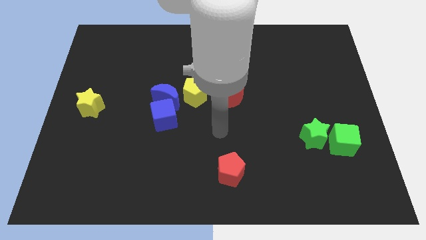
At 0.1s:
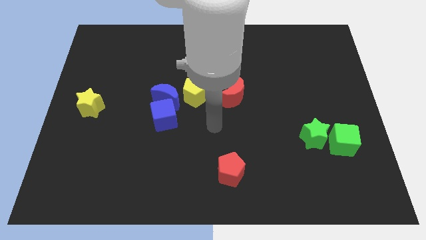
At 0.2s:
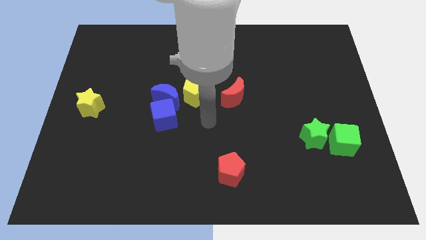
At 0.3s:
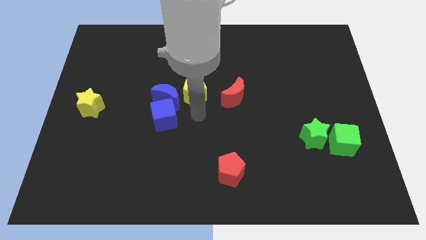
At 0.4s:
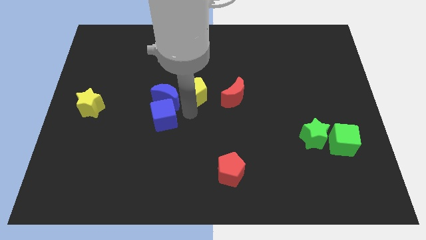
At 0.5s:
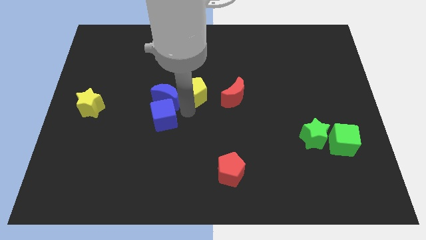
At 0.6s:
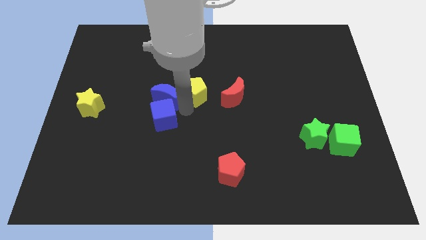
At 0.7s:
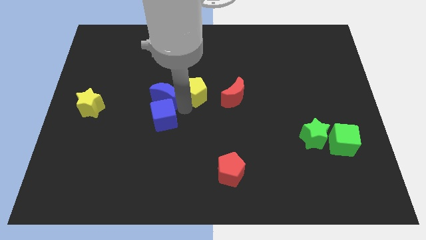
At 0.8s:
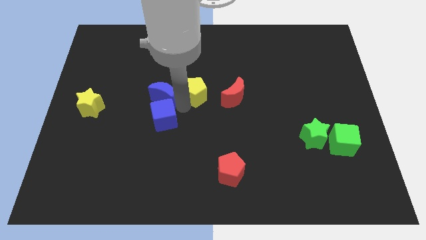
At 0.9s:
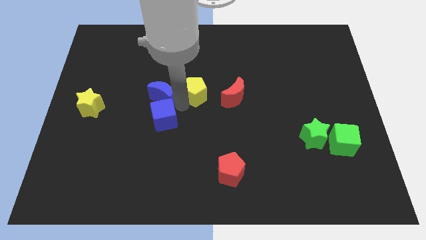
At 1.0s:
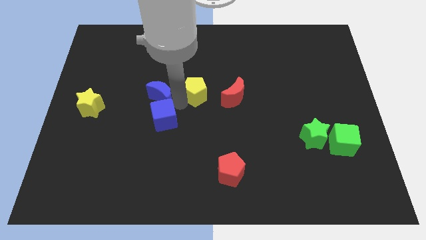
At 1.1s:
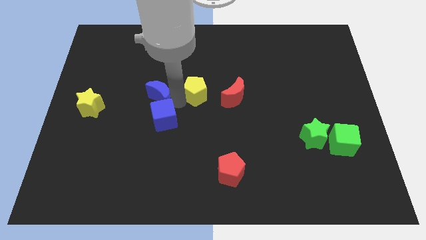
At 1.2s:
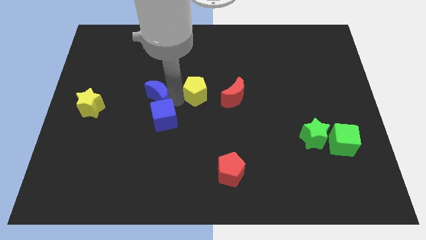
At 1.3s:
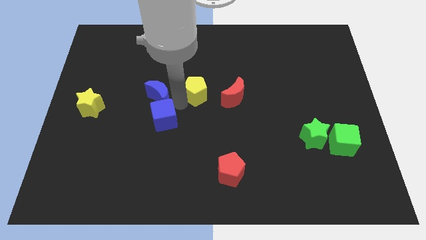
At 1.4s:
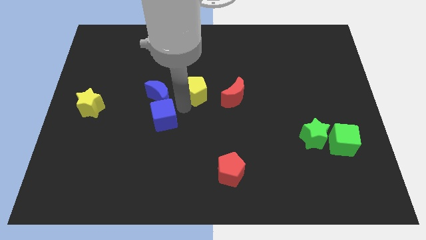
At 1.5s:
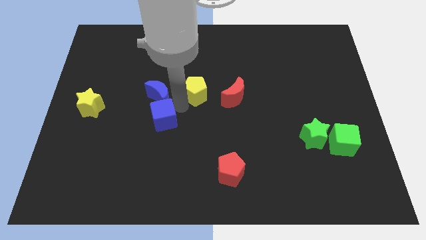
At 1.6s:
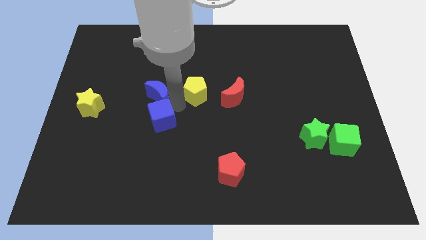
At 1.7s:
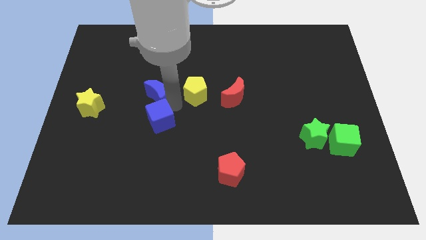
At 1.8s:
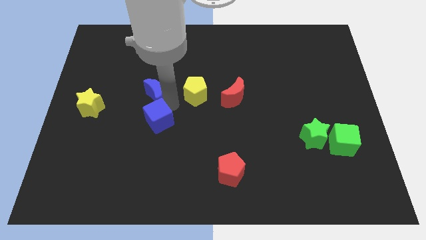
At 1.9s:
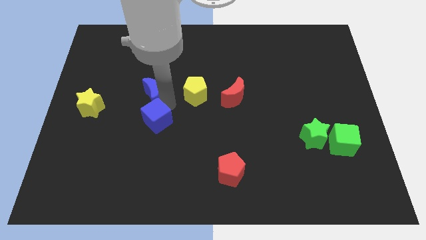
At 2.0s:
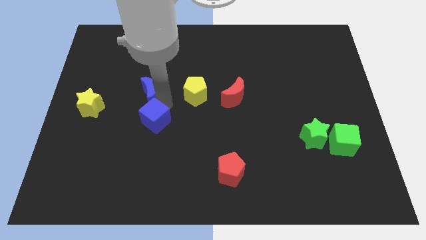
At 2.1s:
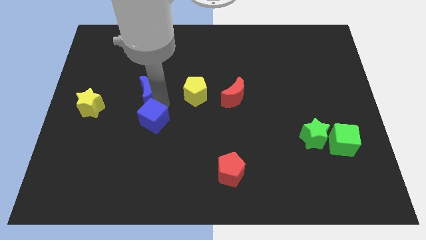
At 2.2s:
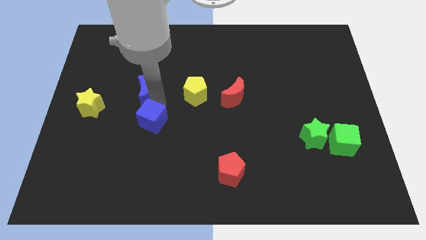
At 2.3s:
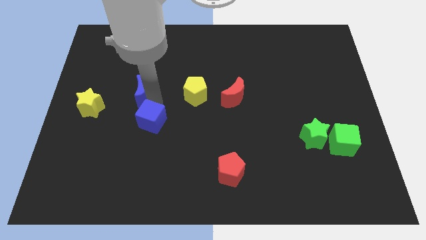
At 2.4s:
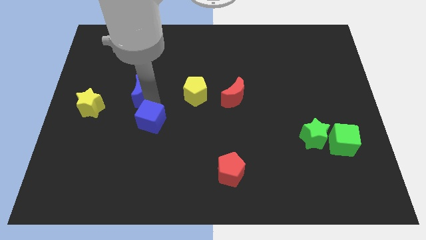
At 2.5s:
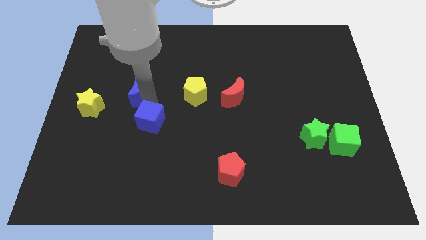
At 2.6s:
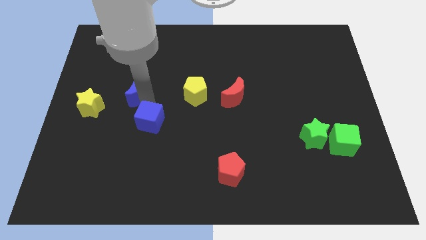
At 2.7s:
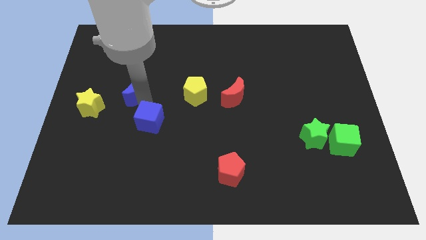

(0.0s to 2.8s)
separate the blue moon from the blue cube and yellow pentagon

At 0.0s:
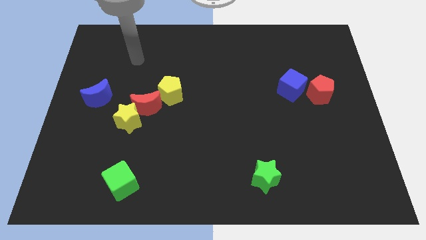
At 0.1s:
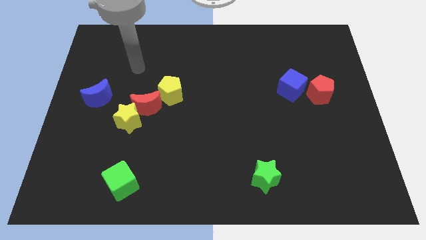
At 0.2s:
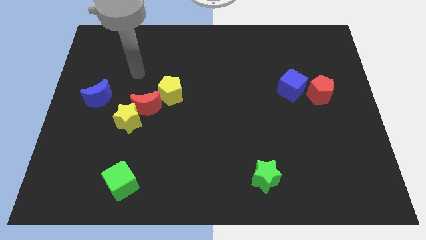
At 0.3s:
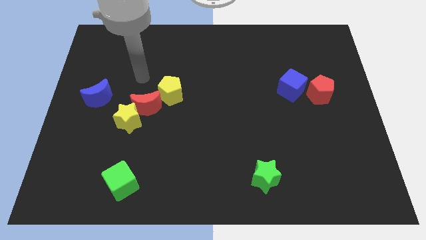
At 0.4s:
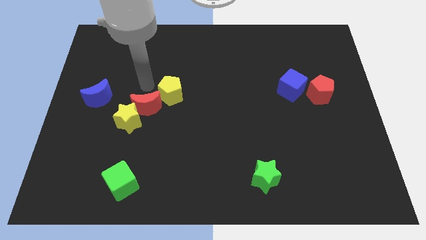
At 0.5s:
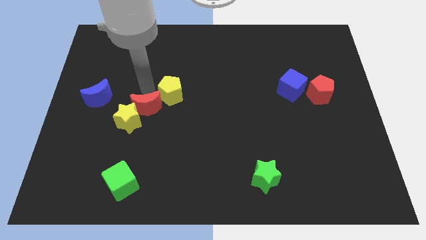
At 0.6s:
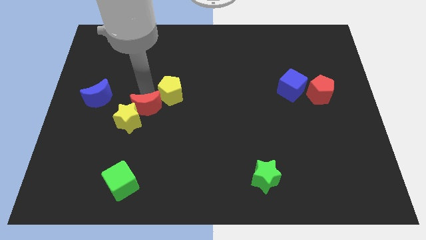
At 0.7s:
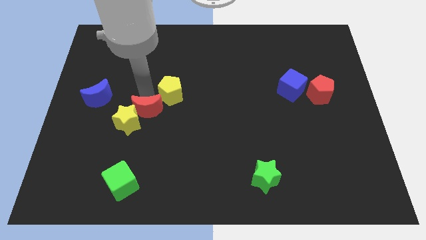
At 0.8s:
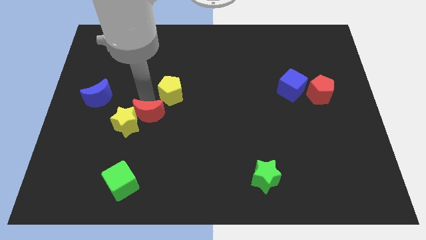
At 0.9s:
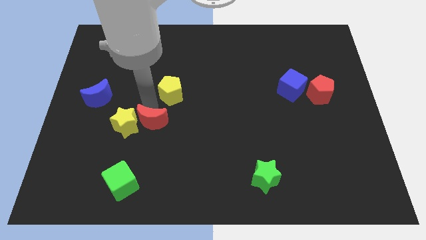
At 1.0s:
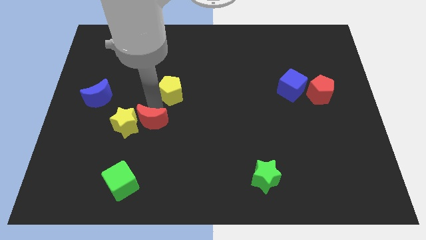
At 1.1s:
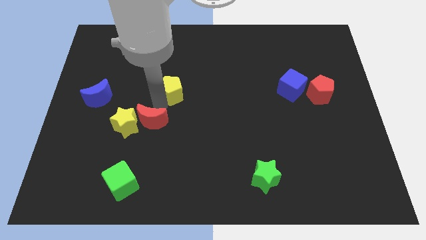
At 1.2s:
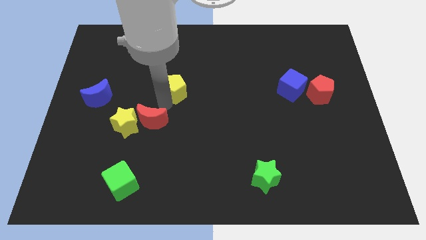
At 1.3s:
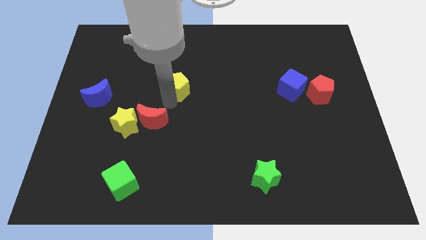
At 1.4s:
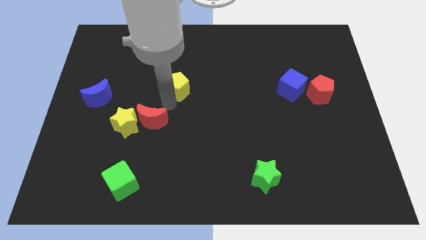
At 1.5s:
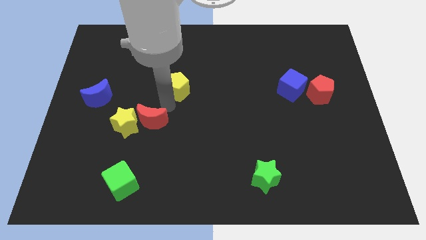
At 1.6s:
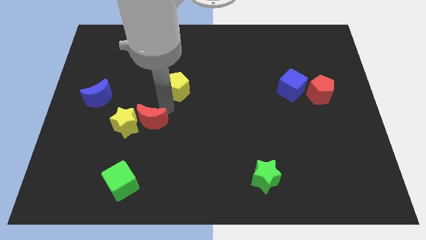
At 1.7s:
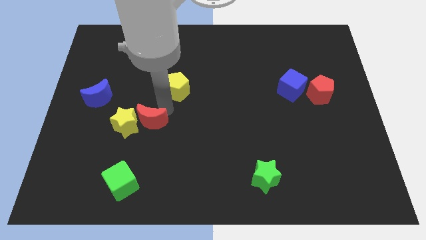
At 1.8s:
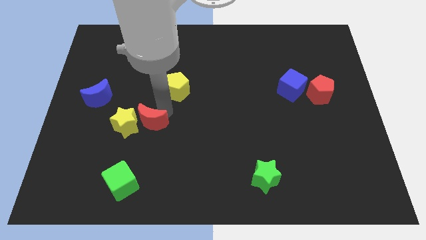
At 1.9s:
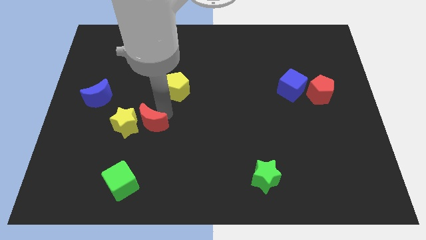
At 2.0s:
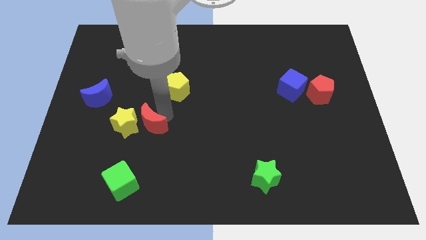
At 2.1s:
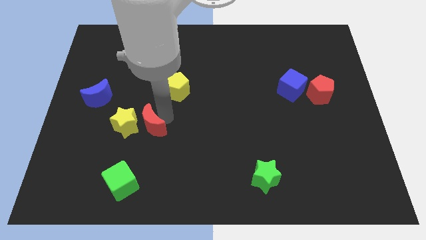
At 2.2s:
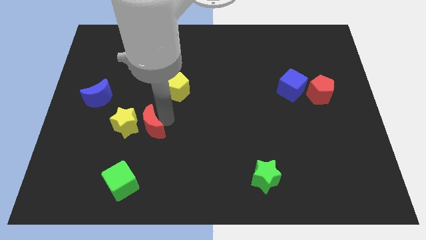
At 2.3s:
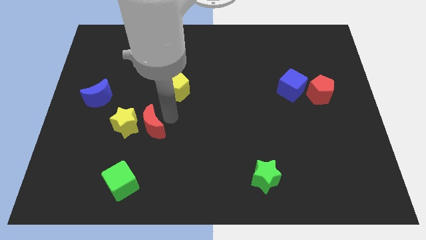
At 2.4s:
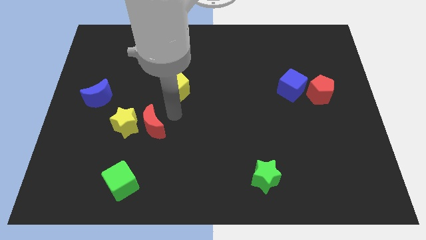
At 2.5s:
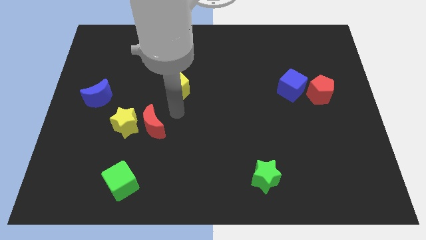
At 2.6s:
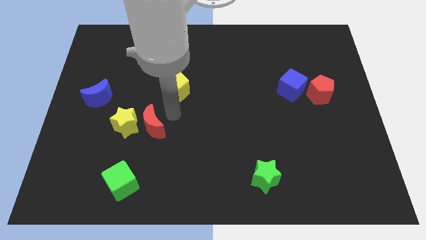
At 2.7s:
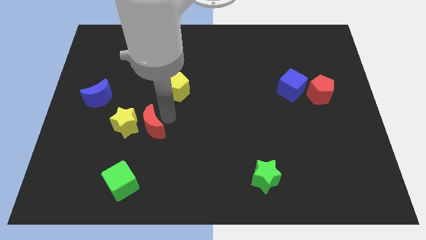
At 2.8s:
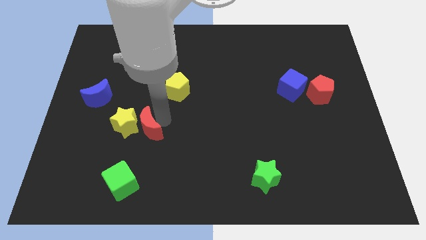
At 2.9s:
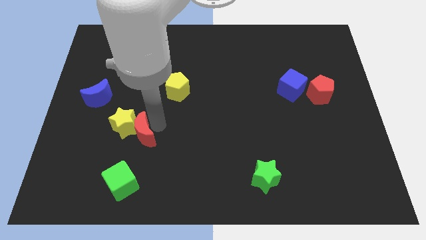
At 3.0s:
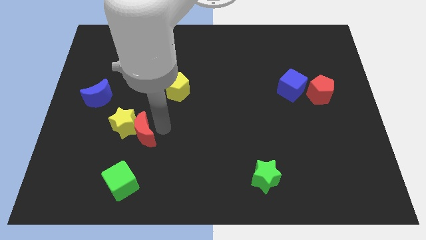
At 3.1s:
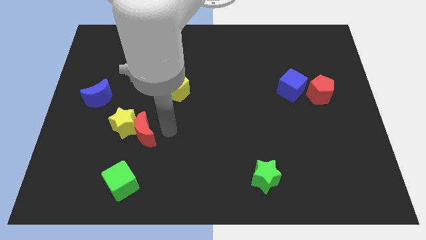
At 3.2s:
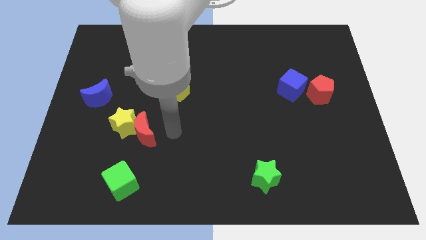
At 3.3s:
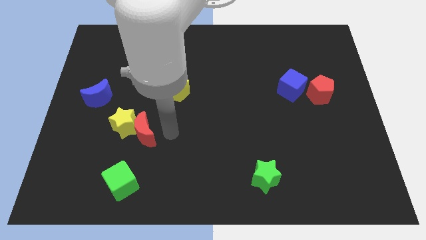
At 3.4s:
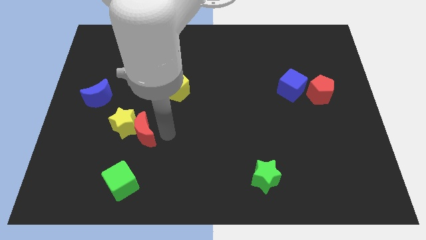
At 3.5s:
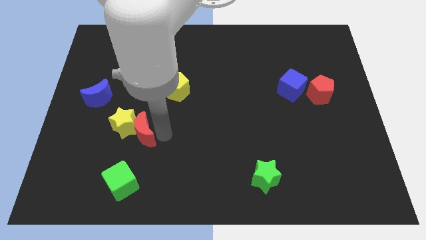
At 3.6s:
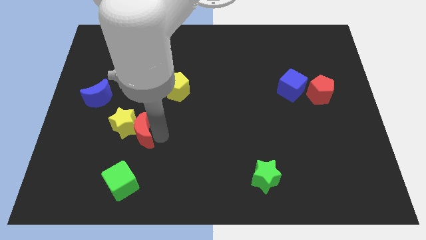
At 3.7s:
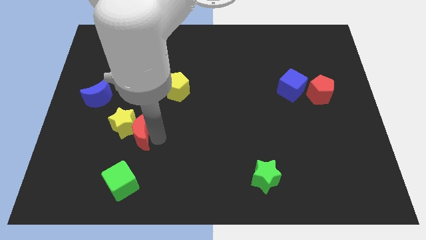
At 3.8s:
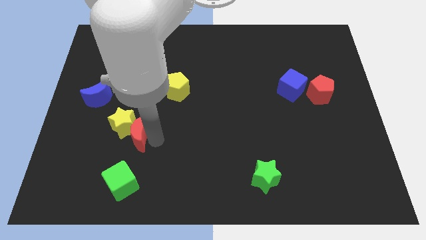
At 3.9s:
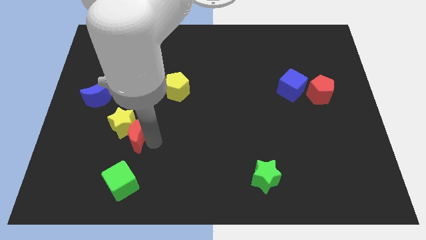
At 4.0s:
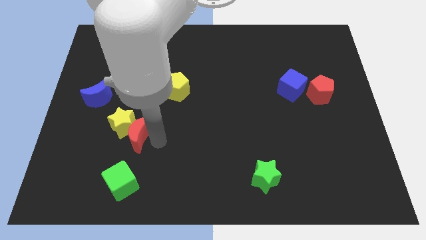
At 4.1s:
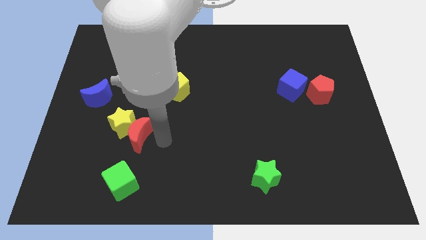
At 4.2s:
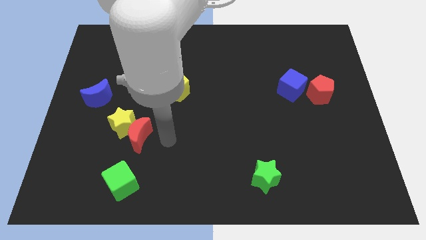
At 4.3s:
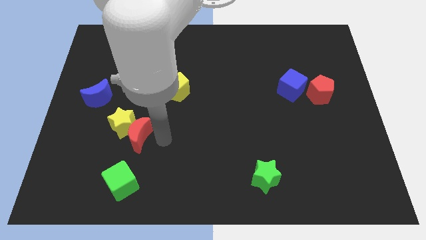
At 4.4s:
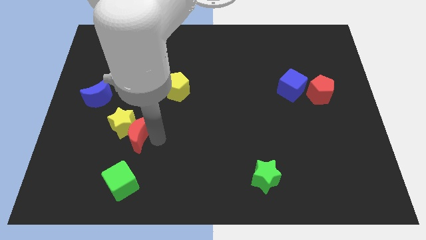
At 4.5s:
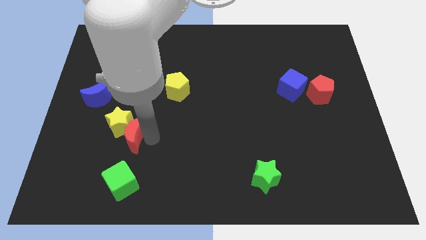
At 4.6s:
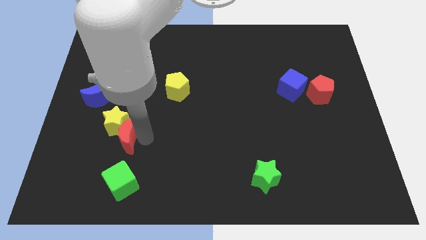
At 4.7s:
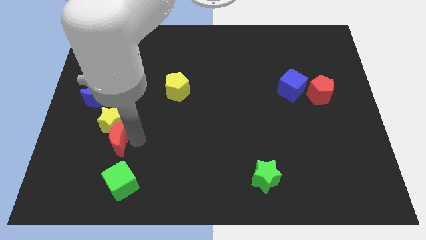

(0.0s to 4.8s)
separate the red moon from the yellow star and yellow pentagon

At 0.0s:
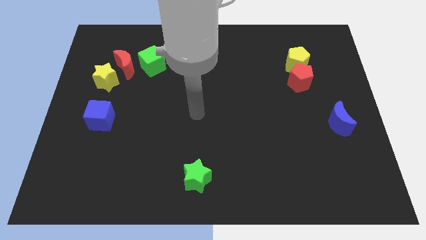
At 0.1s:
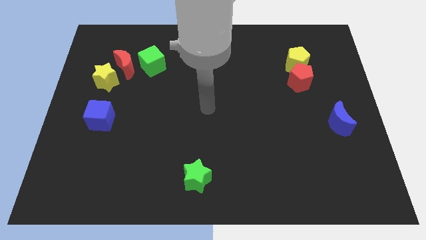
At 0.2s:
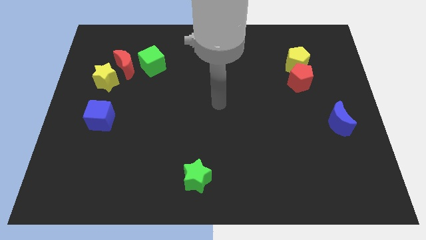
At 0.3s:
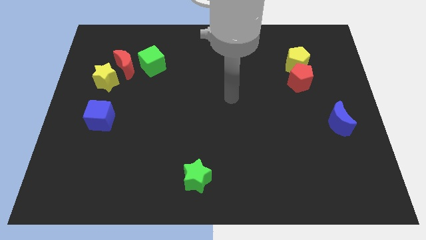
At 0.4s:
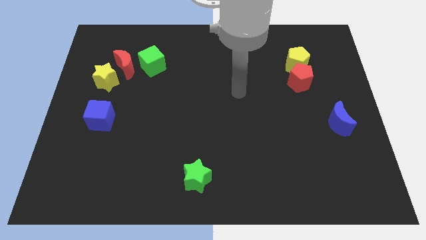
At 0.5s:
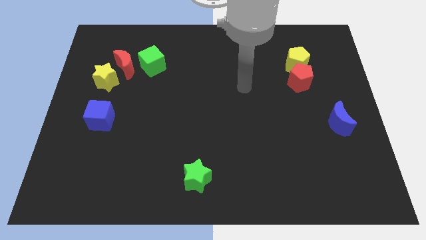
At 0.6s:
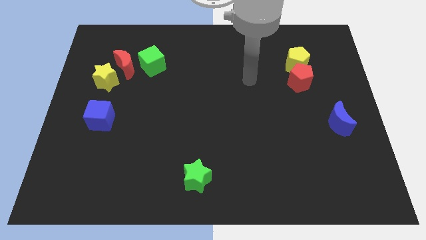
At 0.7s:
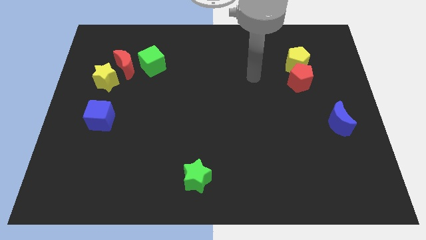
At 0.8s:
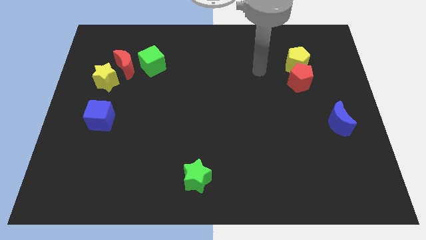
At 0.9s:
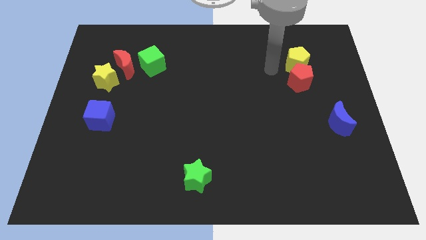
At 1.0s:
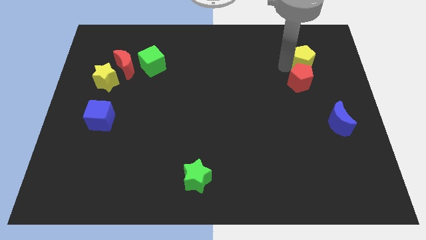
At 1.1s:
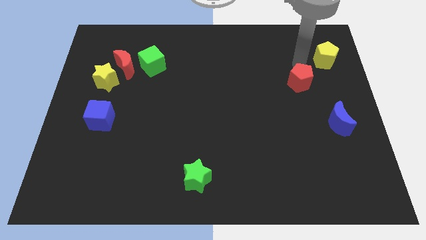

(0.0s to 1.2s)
separate the red pentagon from the yellow pentagon

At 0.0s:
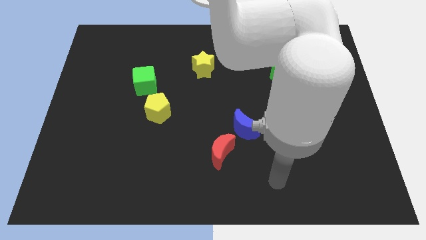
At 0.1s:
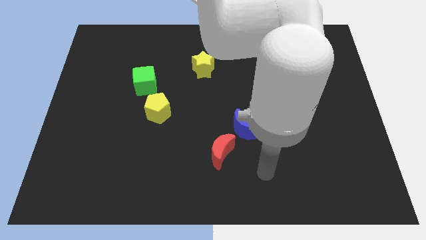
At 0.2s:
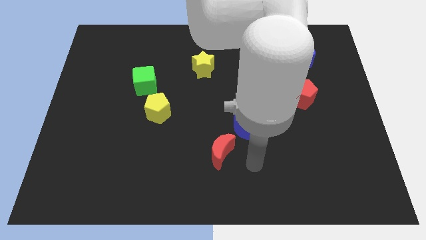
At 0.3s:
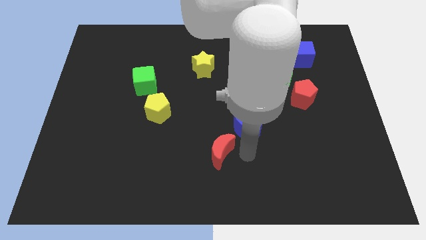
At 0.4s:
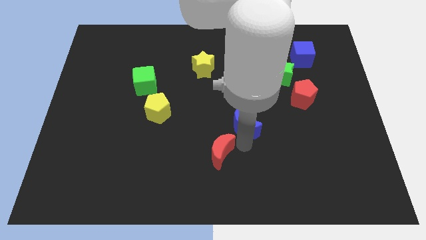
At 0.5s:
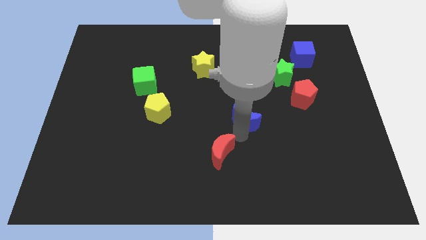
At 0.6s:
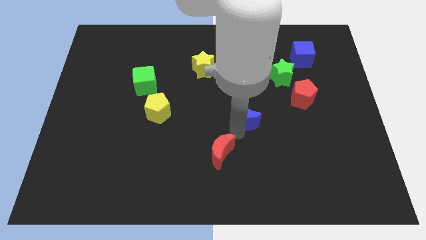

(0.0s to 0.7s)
move the red moon away from the blue moon
